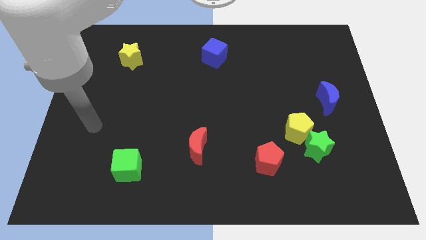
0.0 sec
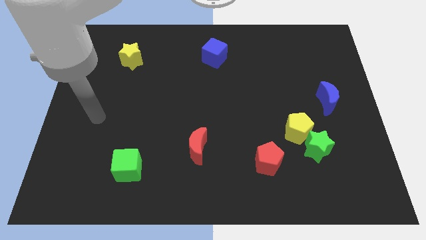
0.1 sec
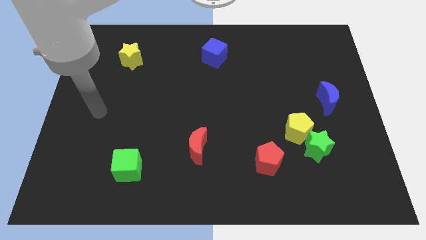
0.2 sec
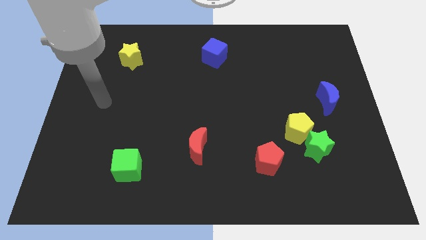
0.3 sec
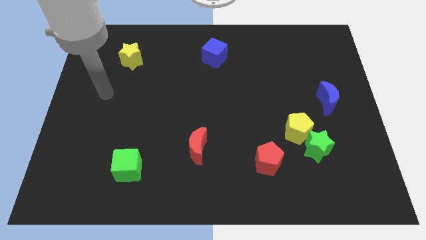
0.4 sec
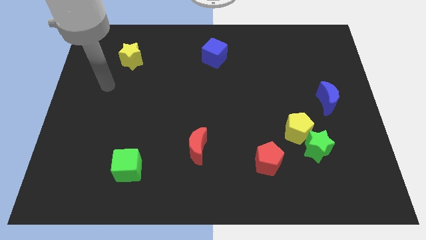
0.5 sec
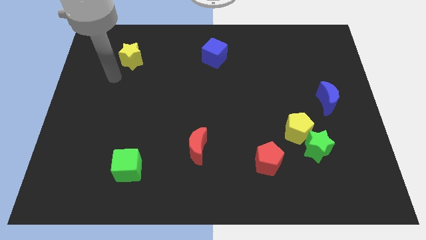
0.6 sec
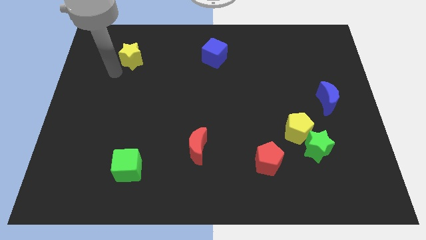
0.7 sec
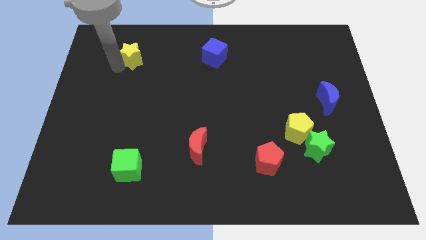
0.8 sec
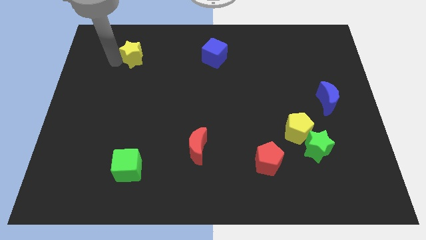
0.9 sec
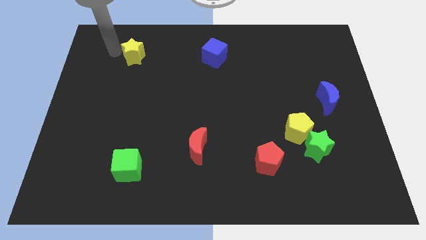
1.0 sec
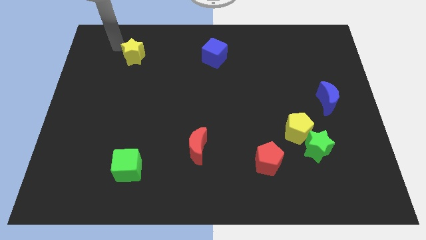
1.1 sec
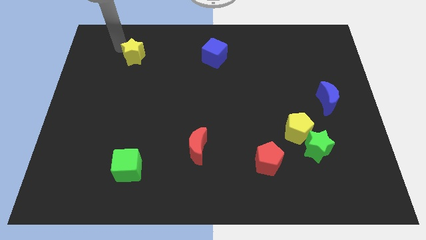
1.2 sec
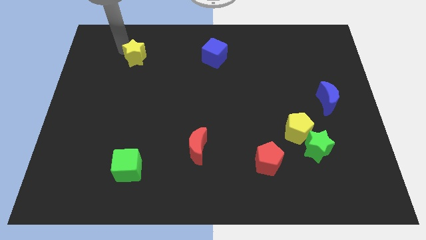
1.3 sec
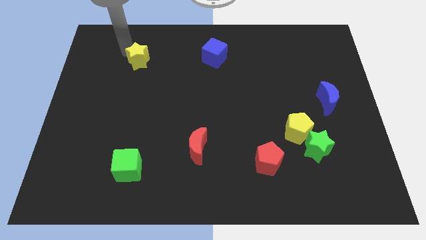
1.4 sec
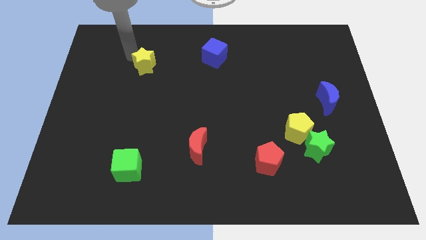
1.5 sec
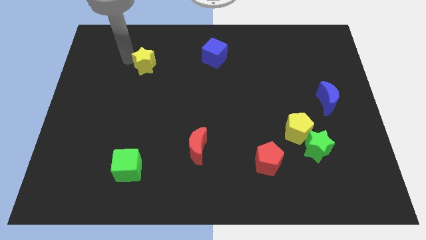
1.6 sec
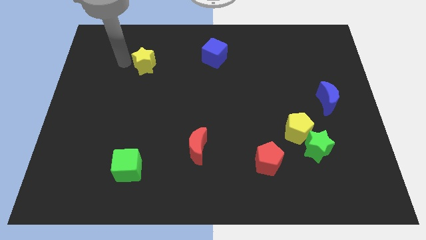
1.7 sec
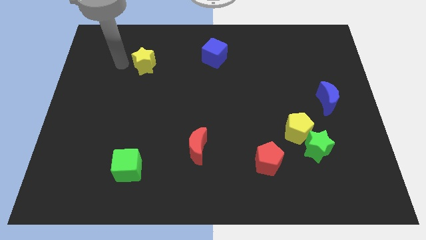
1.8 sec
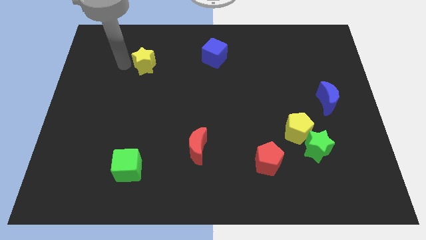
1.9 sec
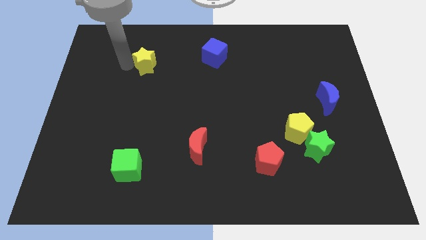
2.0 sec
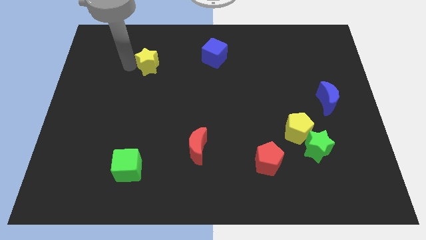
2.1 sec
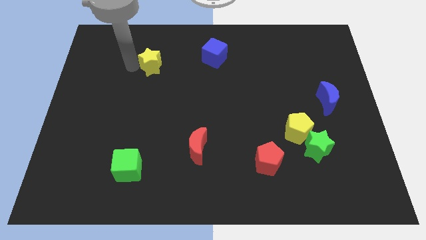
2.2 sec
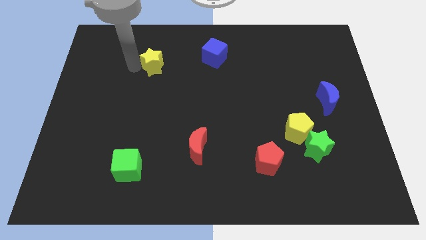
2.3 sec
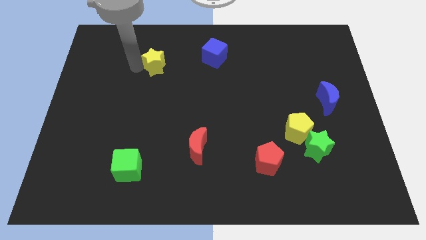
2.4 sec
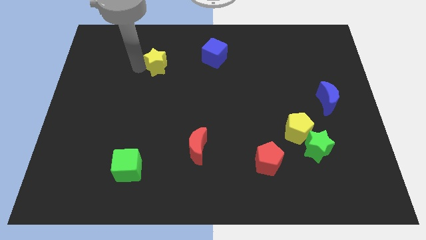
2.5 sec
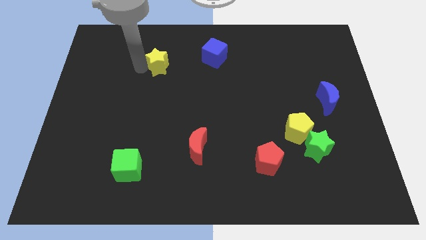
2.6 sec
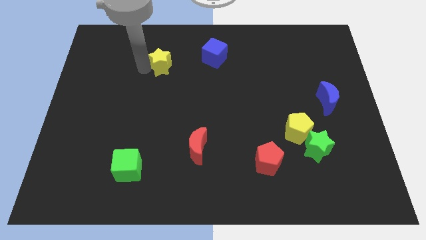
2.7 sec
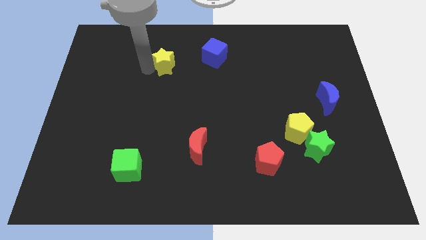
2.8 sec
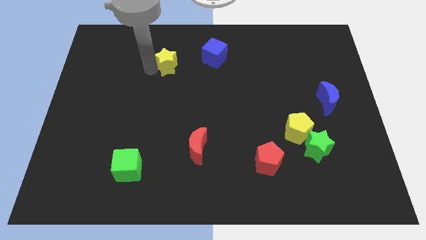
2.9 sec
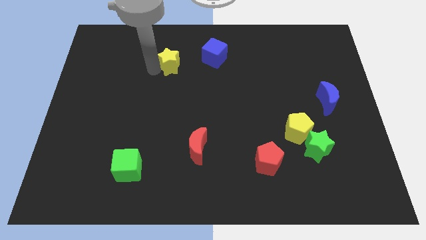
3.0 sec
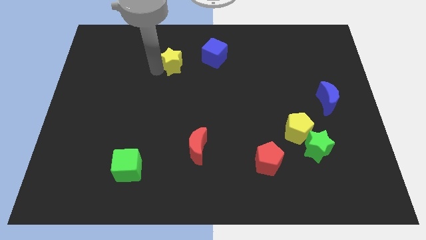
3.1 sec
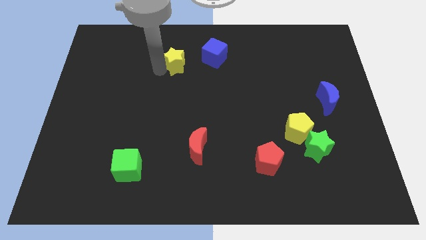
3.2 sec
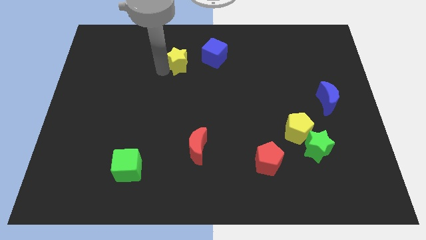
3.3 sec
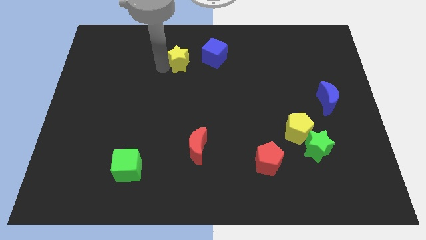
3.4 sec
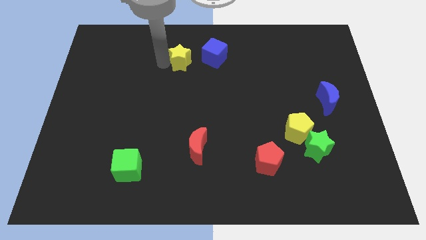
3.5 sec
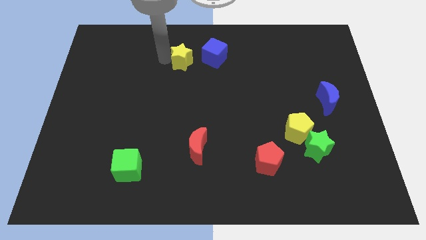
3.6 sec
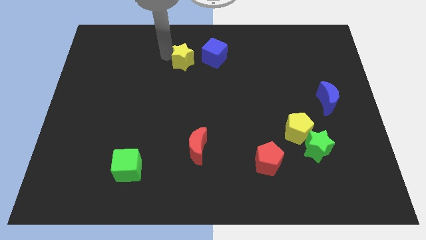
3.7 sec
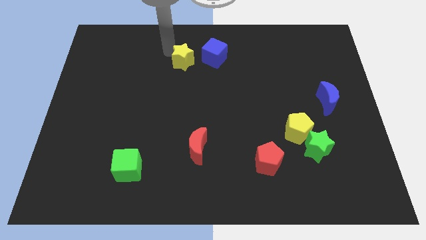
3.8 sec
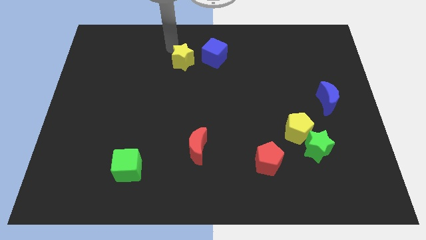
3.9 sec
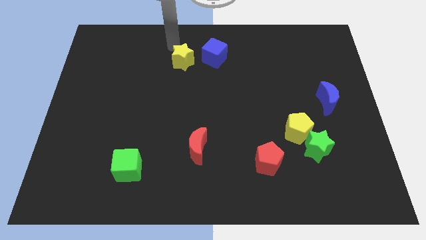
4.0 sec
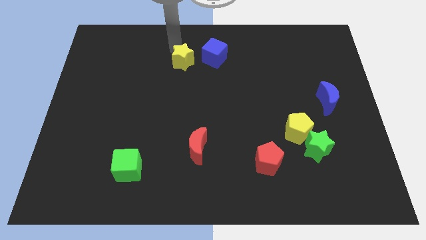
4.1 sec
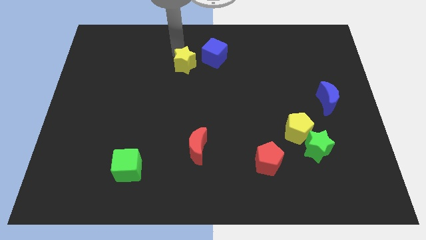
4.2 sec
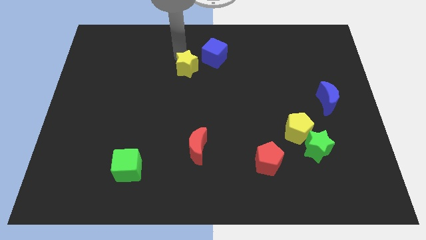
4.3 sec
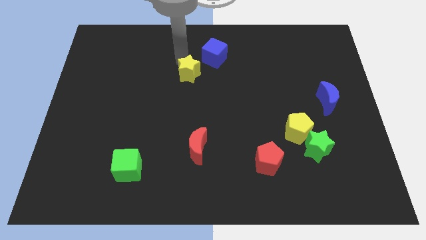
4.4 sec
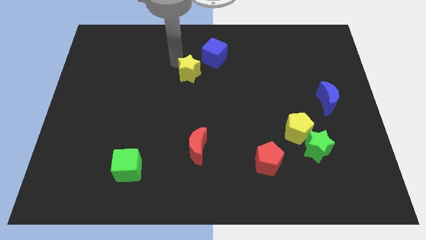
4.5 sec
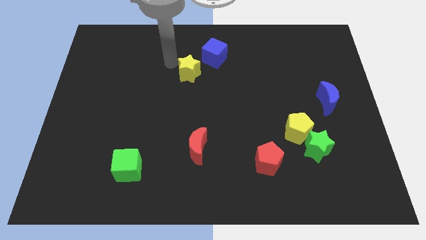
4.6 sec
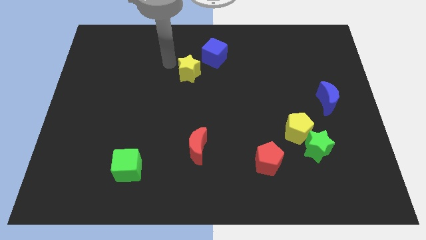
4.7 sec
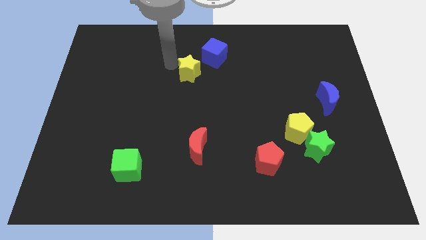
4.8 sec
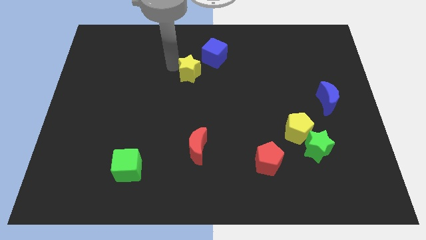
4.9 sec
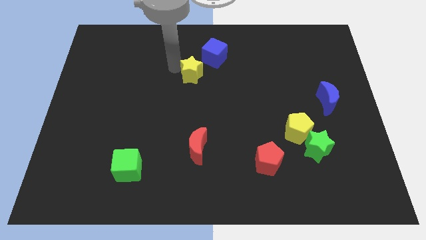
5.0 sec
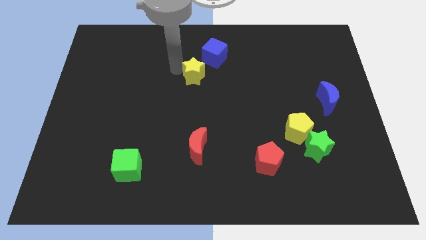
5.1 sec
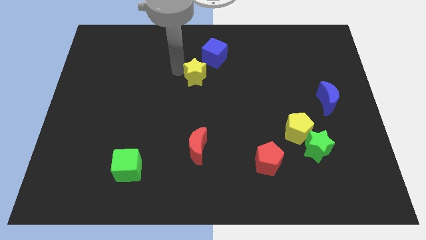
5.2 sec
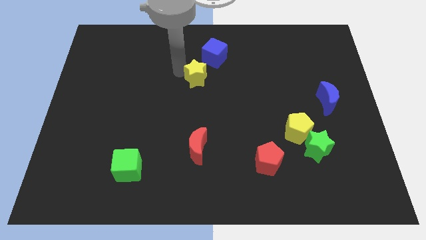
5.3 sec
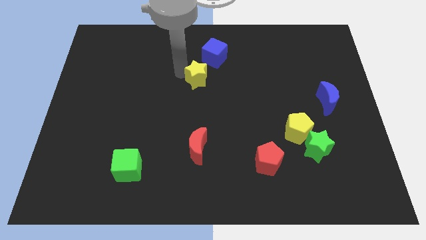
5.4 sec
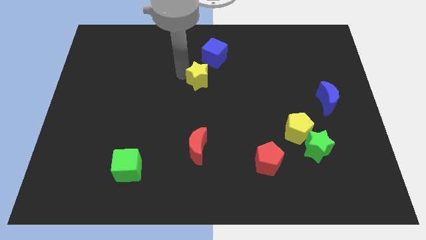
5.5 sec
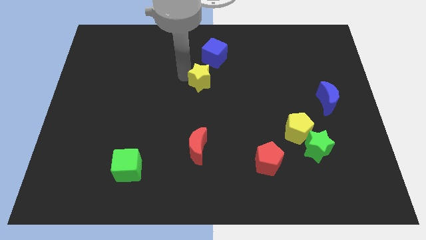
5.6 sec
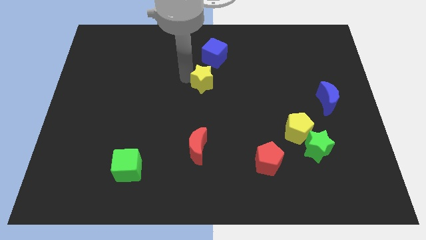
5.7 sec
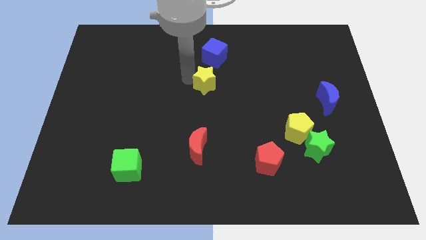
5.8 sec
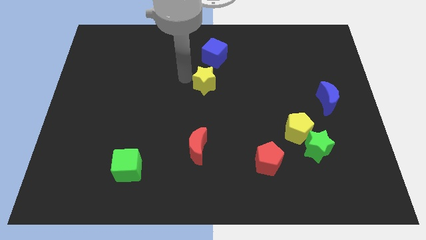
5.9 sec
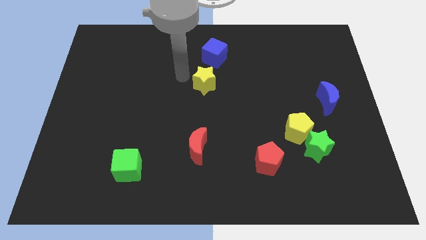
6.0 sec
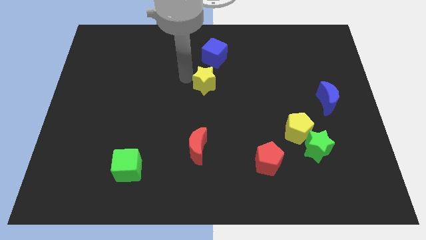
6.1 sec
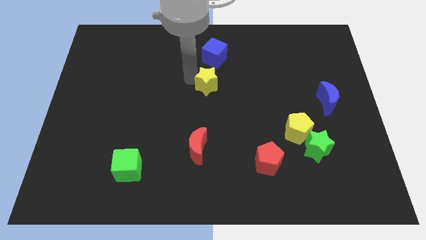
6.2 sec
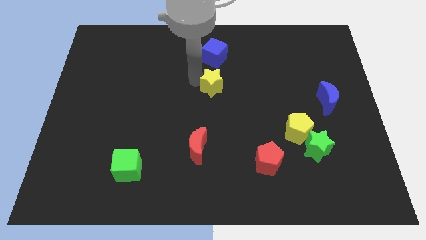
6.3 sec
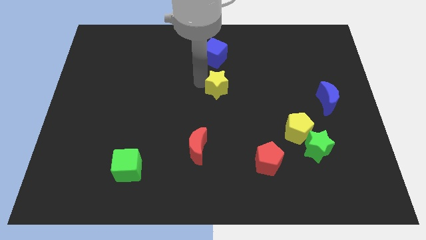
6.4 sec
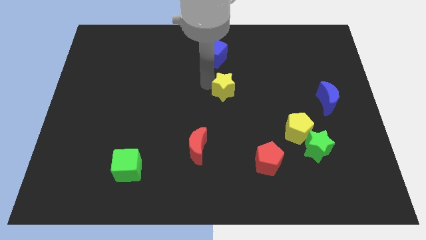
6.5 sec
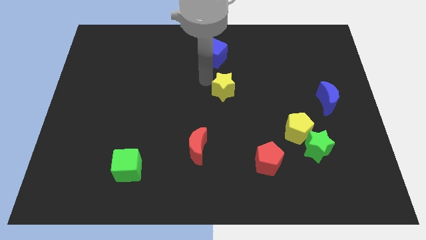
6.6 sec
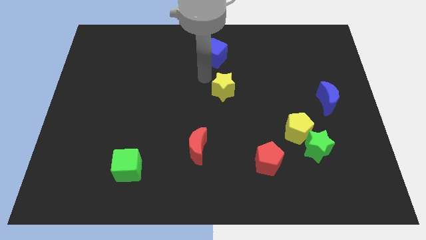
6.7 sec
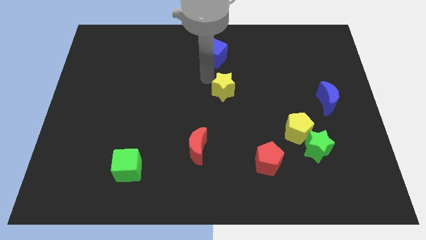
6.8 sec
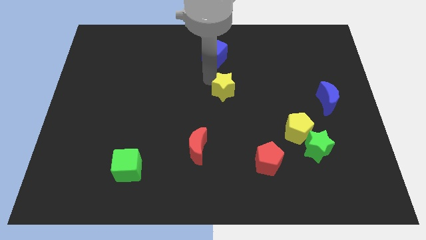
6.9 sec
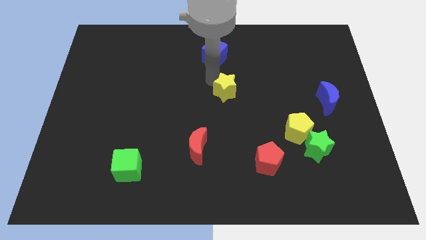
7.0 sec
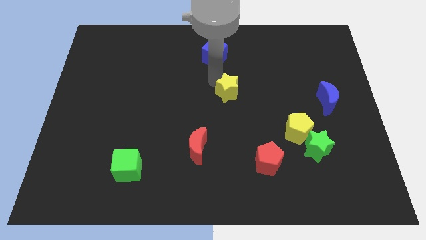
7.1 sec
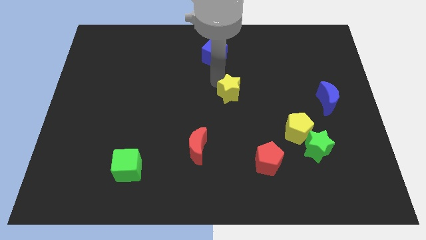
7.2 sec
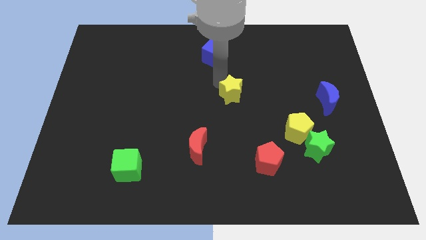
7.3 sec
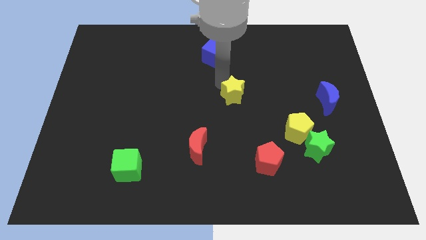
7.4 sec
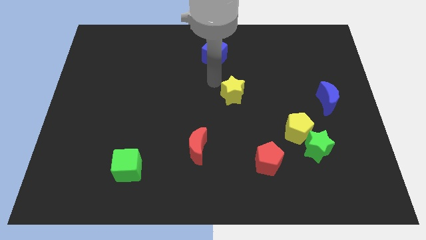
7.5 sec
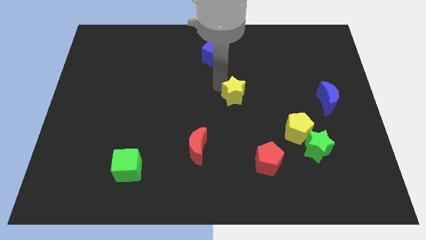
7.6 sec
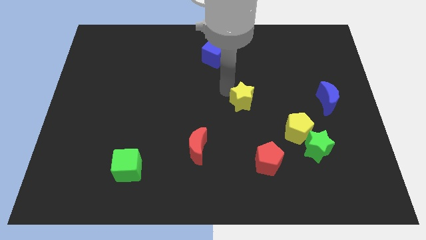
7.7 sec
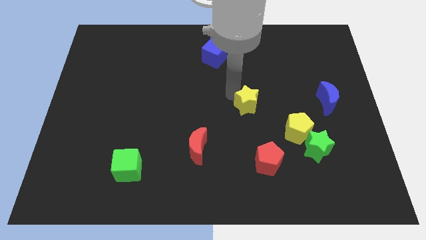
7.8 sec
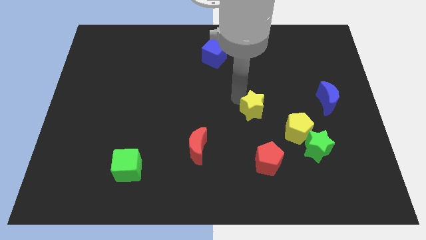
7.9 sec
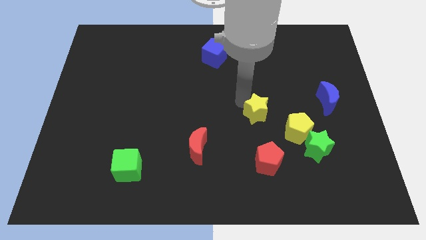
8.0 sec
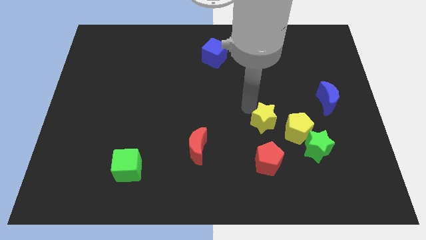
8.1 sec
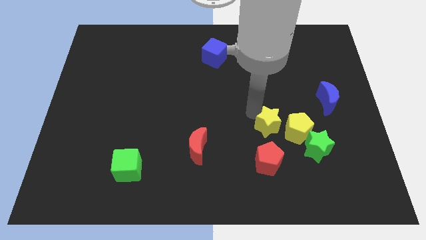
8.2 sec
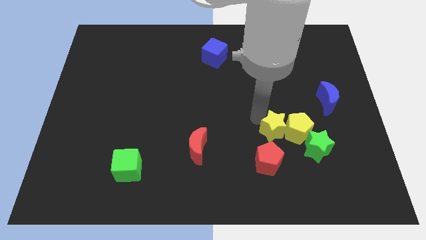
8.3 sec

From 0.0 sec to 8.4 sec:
push the yellow star towards the yellow pentagon
